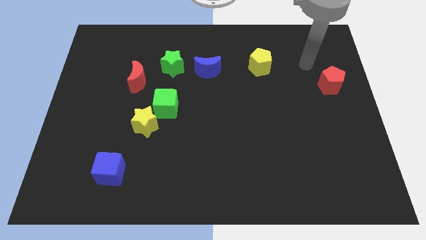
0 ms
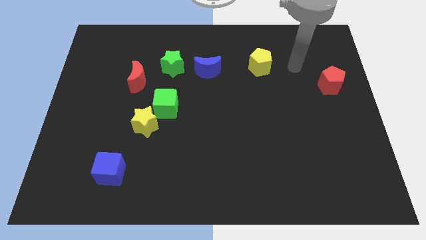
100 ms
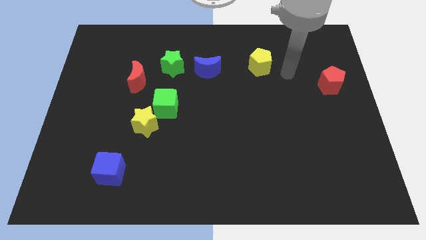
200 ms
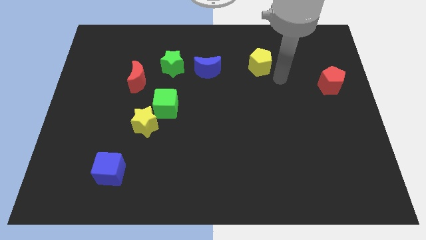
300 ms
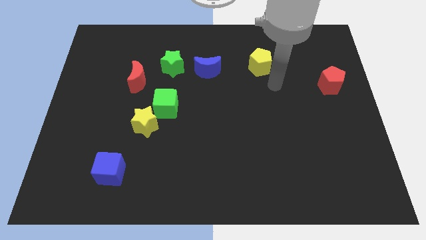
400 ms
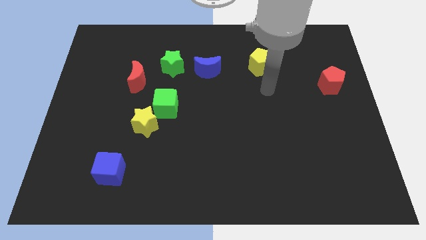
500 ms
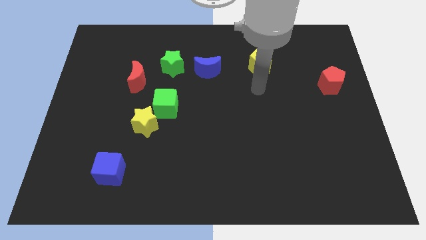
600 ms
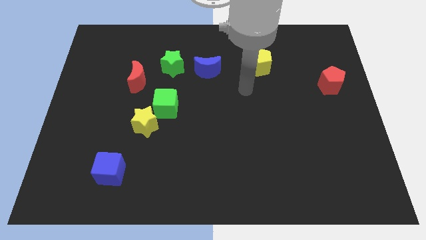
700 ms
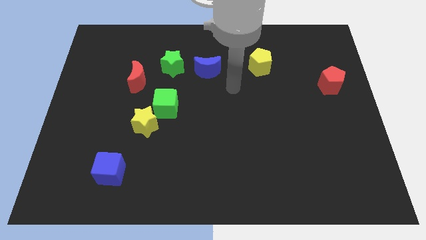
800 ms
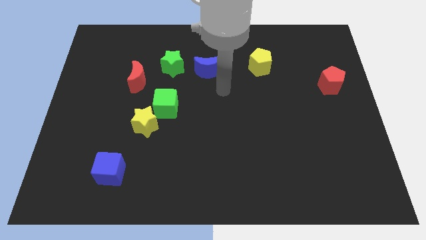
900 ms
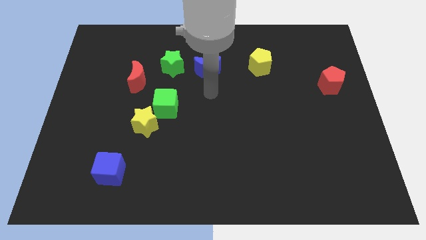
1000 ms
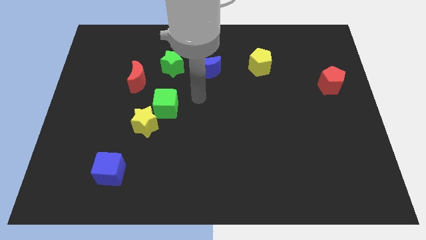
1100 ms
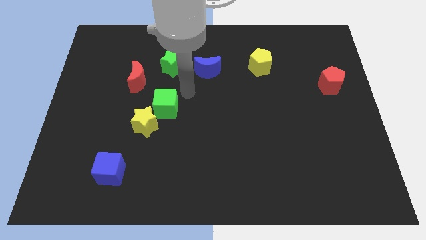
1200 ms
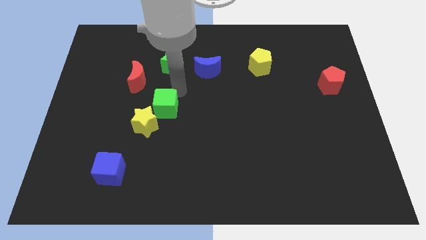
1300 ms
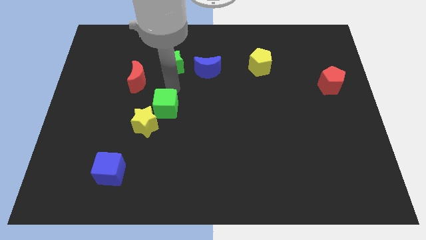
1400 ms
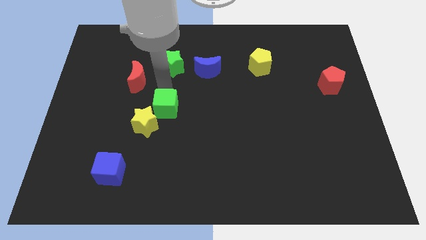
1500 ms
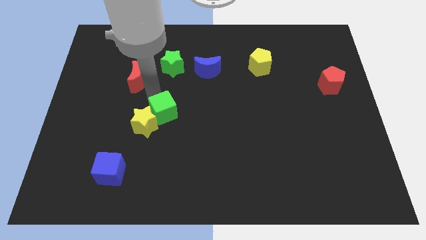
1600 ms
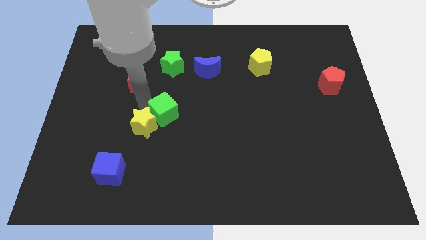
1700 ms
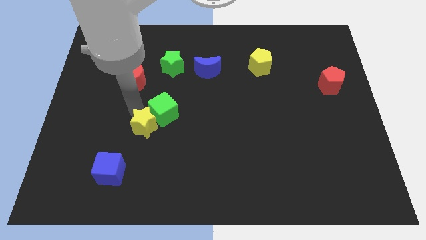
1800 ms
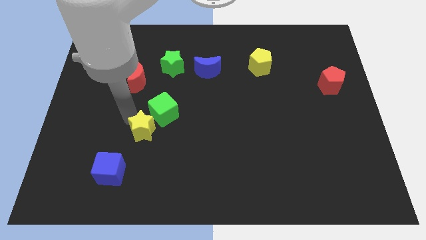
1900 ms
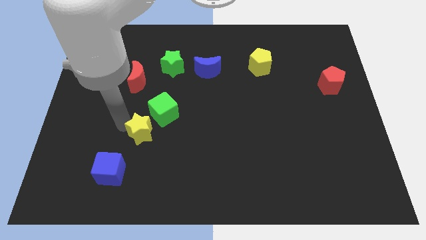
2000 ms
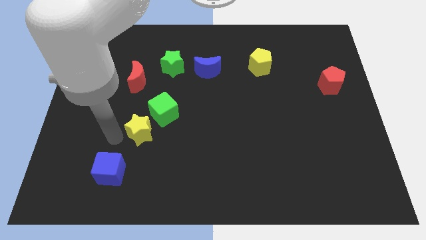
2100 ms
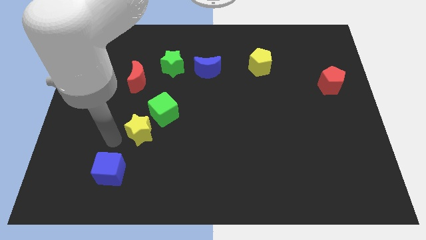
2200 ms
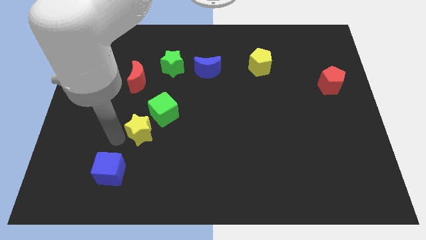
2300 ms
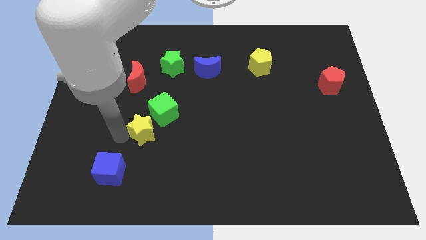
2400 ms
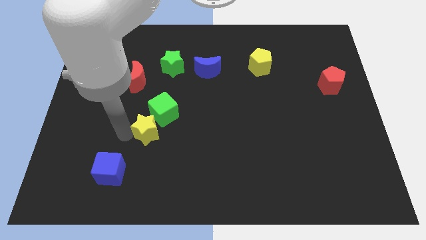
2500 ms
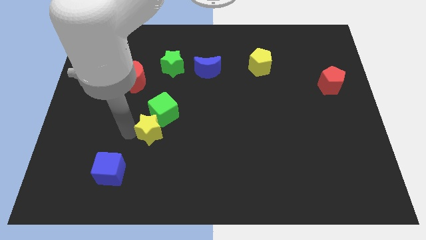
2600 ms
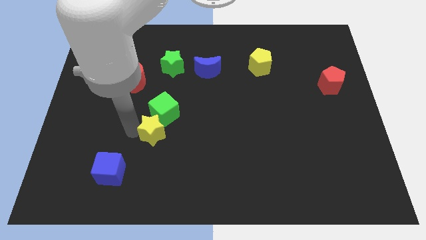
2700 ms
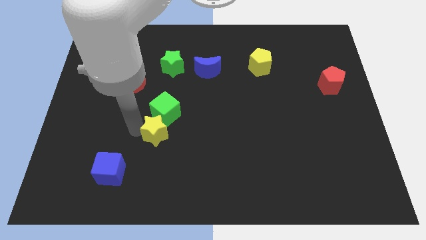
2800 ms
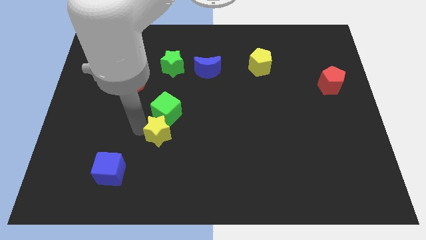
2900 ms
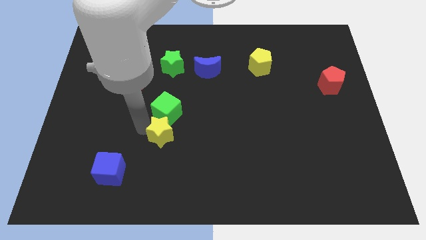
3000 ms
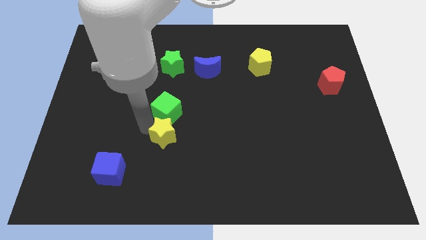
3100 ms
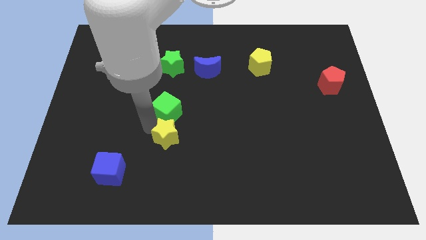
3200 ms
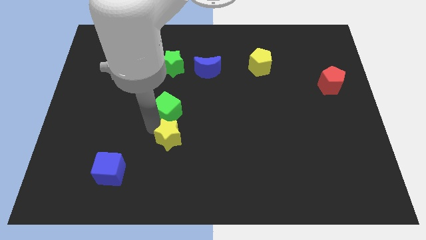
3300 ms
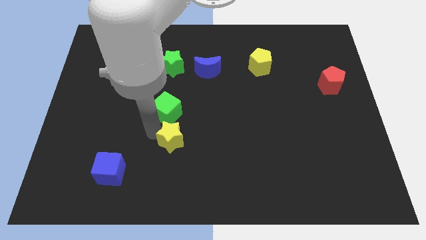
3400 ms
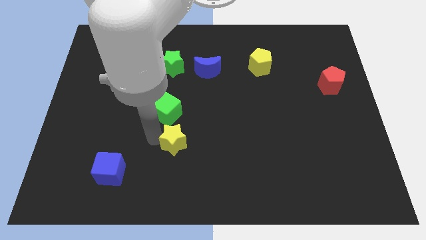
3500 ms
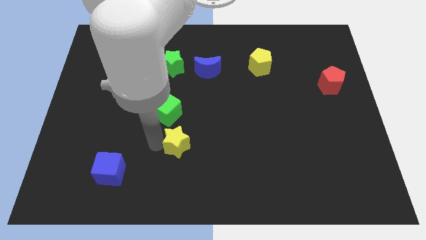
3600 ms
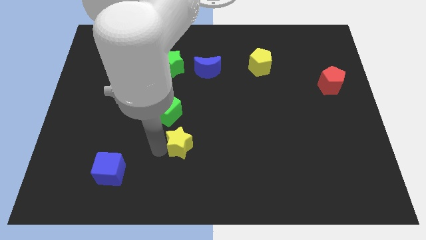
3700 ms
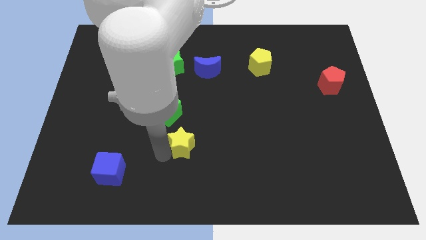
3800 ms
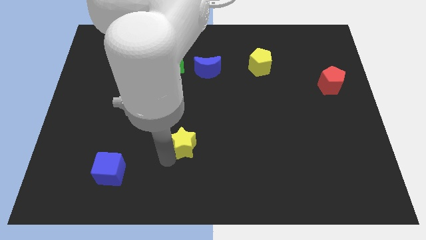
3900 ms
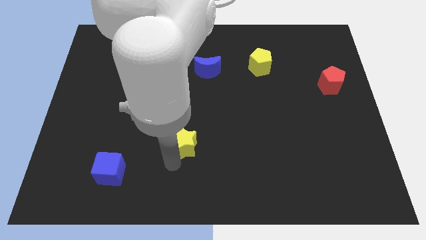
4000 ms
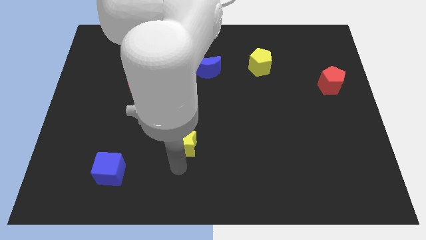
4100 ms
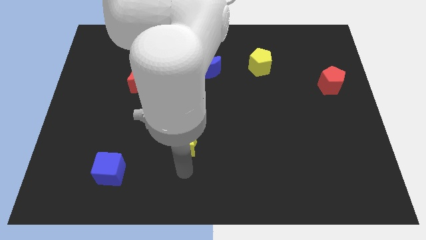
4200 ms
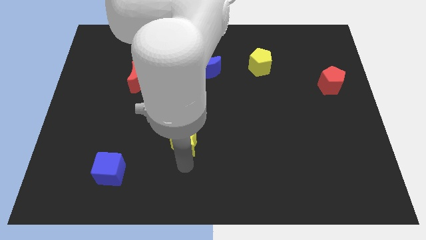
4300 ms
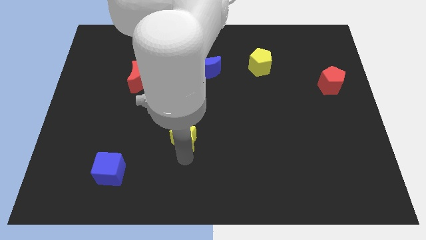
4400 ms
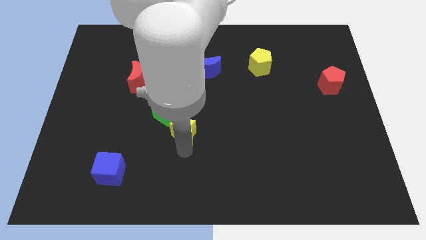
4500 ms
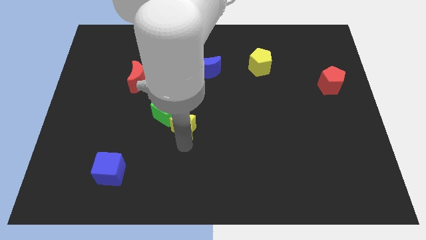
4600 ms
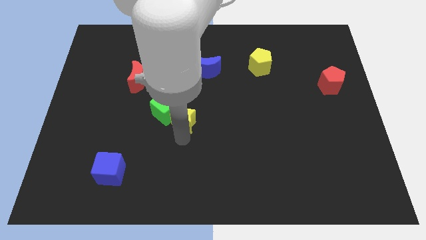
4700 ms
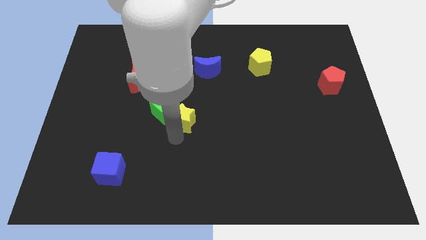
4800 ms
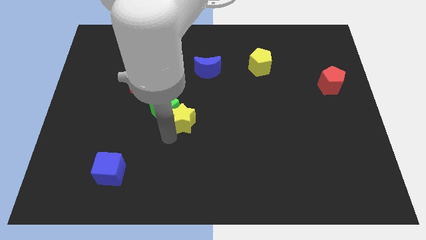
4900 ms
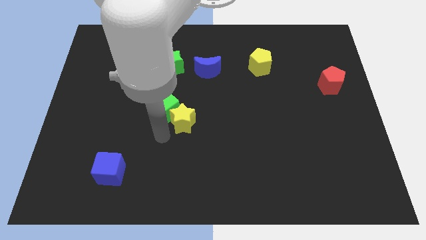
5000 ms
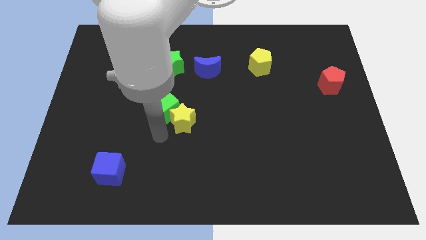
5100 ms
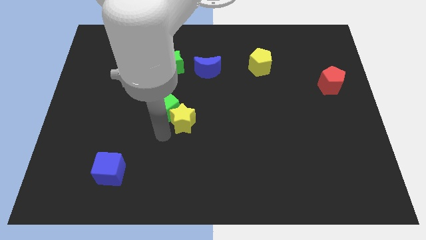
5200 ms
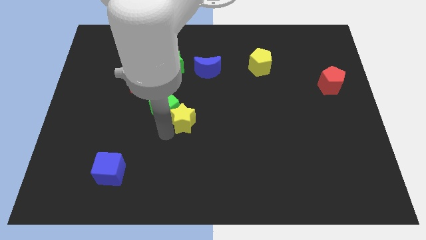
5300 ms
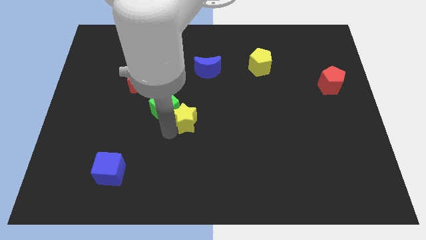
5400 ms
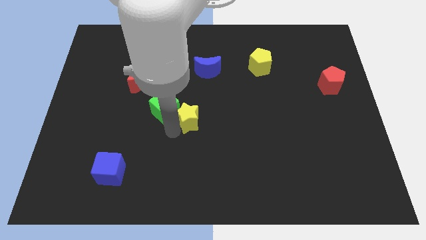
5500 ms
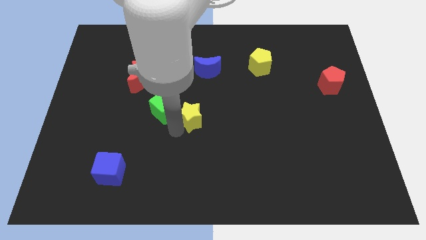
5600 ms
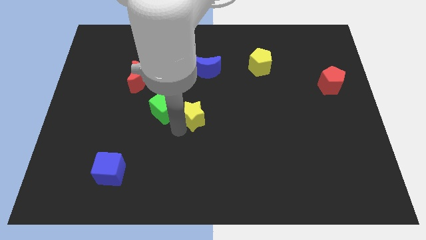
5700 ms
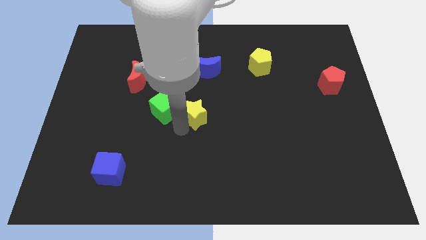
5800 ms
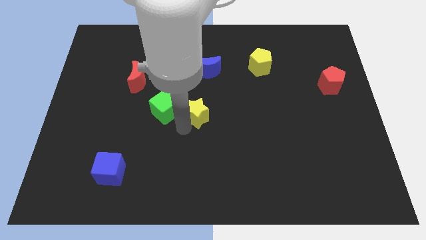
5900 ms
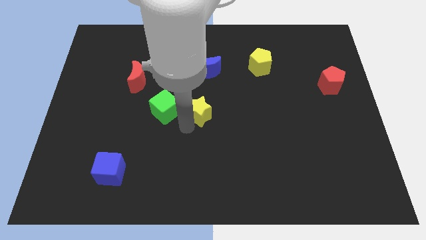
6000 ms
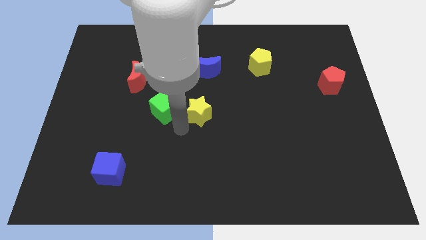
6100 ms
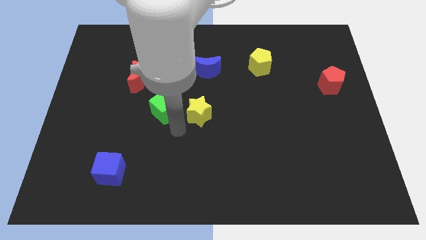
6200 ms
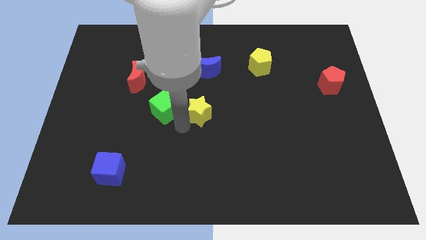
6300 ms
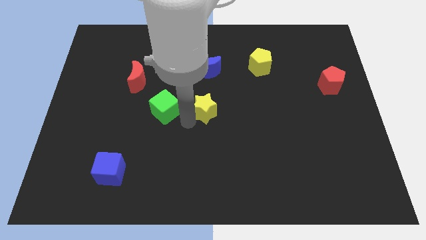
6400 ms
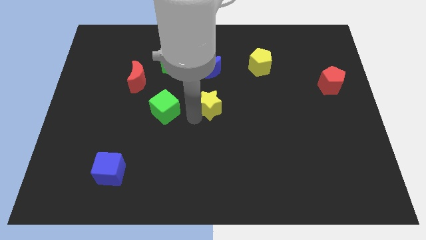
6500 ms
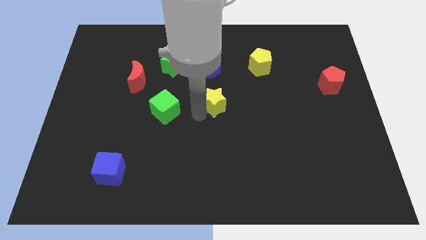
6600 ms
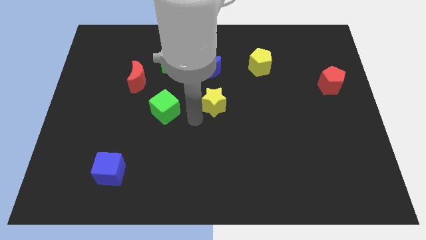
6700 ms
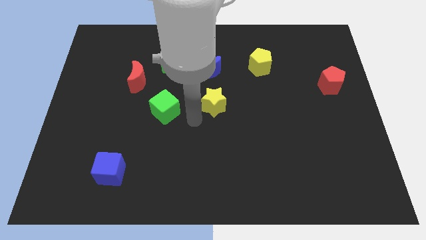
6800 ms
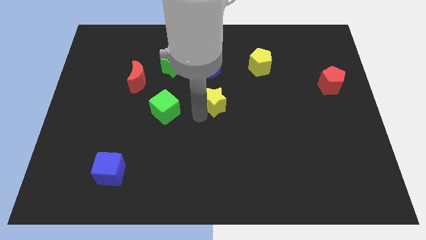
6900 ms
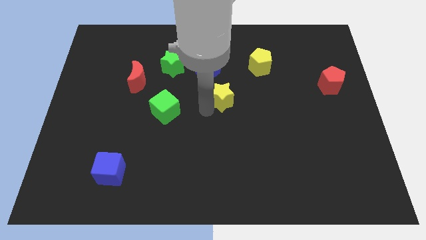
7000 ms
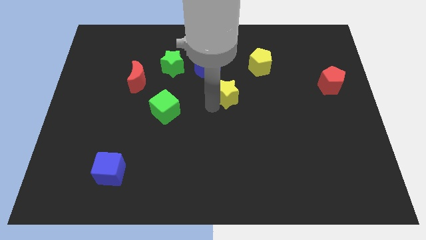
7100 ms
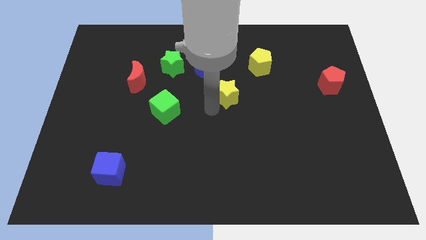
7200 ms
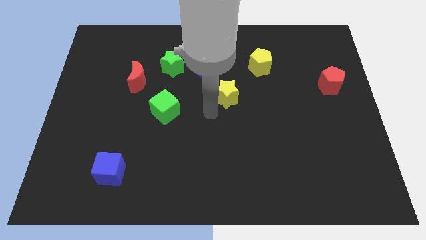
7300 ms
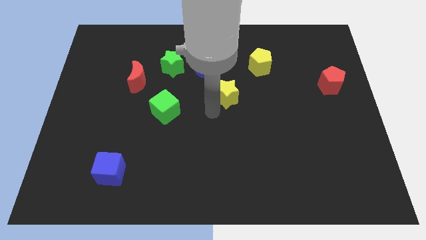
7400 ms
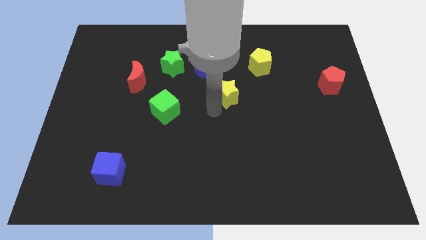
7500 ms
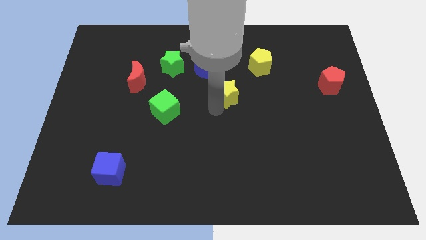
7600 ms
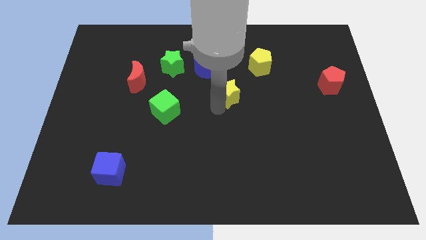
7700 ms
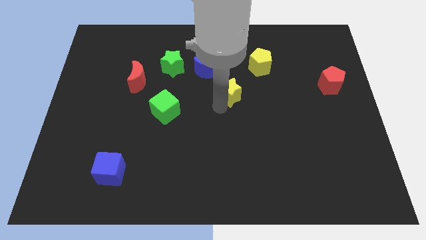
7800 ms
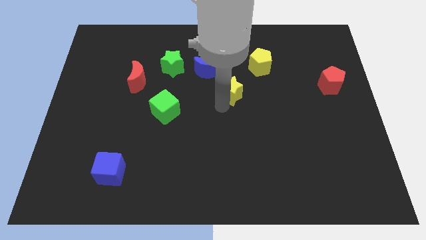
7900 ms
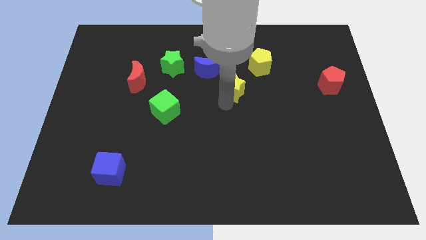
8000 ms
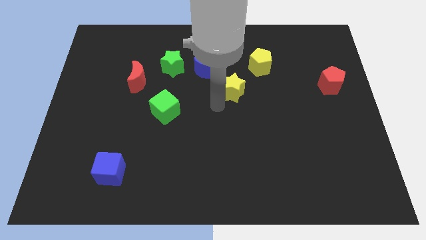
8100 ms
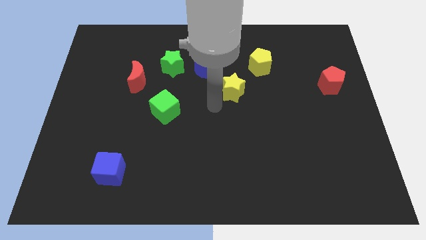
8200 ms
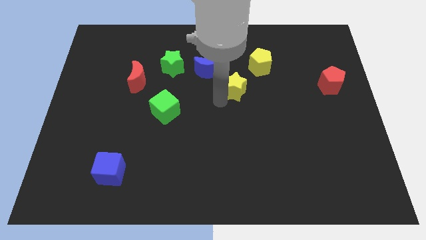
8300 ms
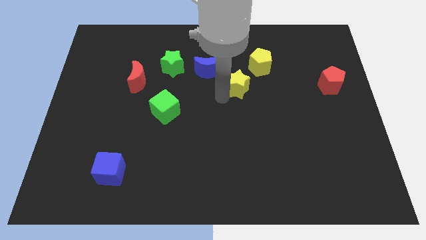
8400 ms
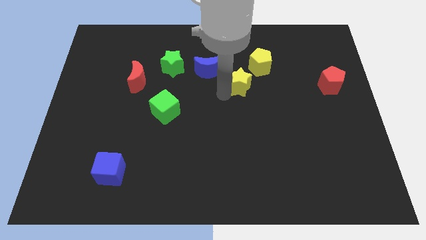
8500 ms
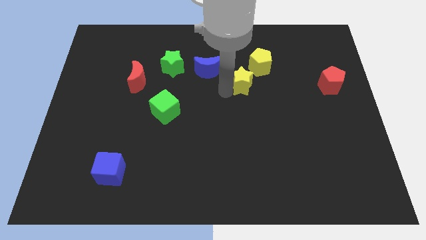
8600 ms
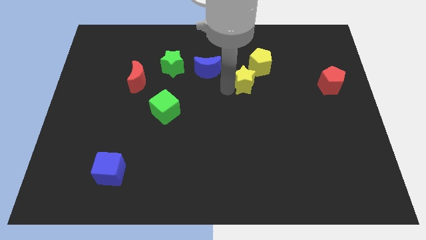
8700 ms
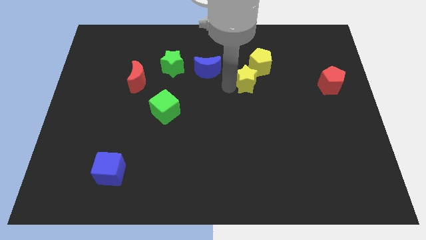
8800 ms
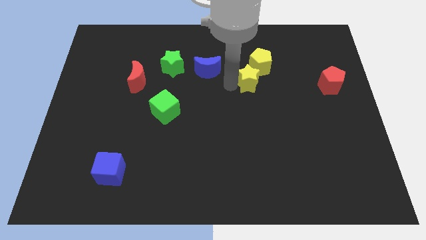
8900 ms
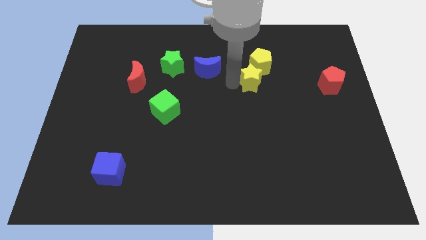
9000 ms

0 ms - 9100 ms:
put the yellow star close to the yellow pentagon
